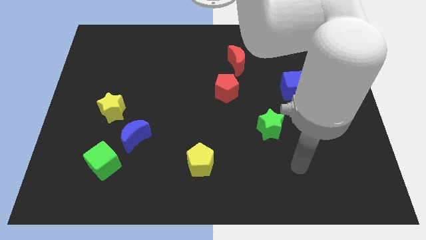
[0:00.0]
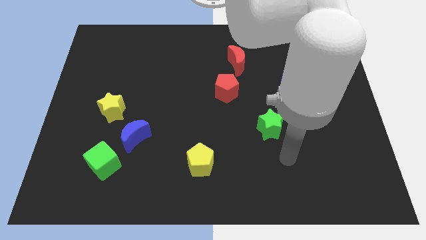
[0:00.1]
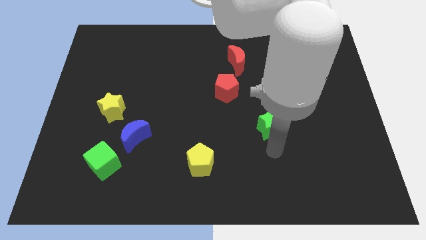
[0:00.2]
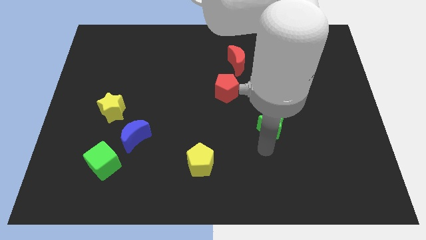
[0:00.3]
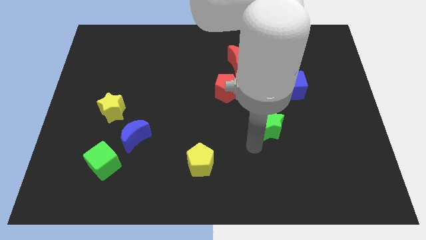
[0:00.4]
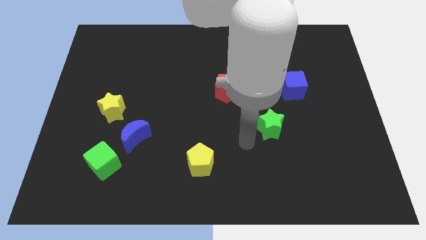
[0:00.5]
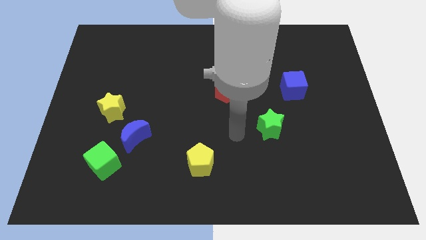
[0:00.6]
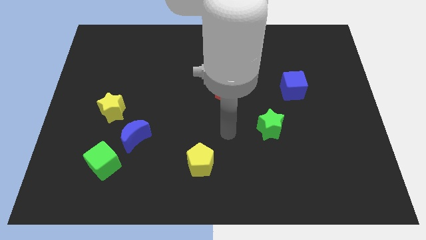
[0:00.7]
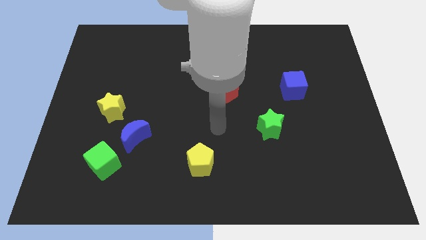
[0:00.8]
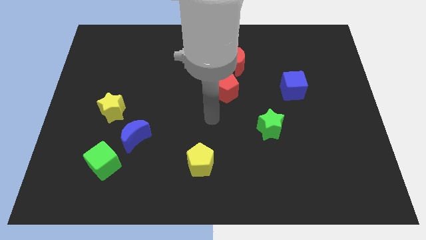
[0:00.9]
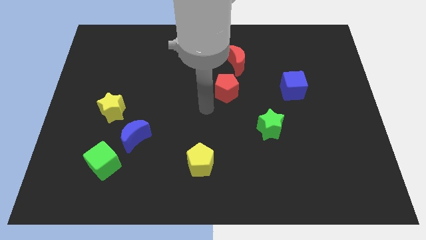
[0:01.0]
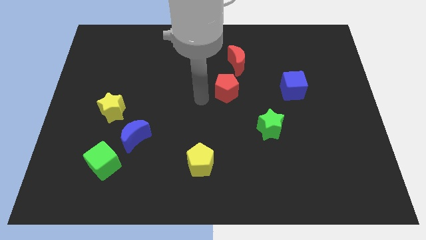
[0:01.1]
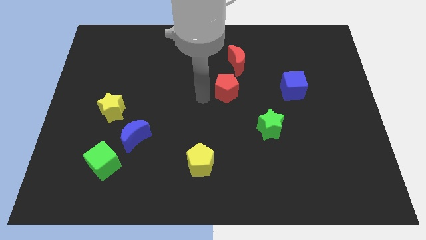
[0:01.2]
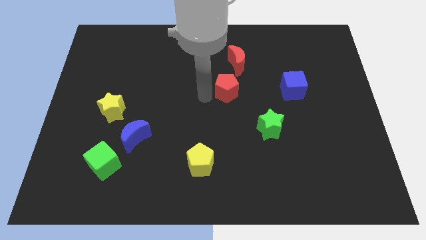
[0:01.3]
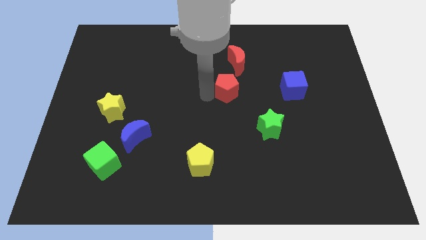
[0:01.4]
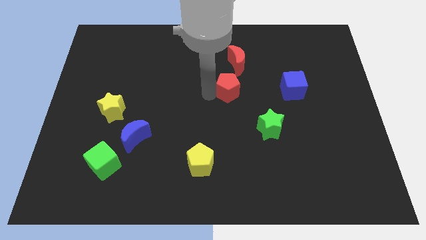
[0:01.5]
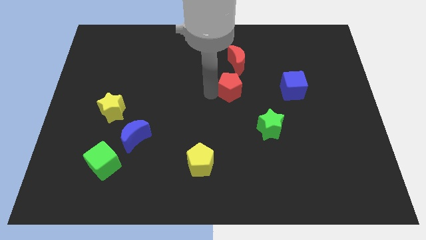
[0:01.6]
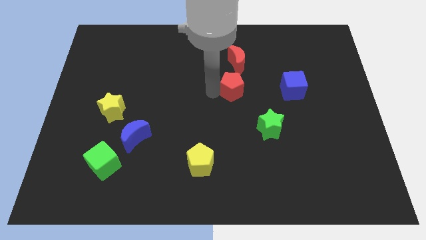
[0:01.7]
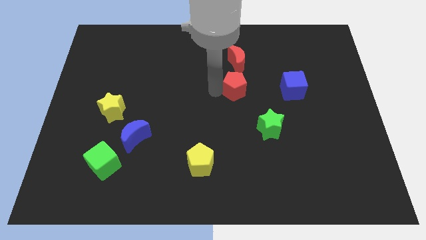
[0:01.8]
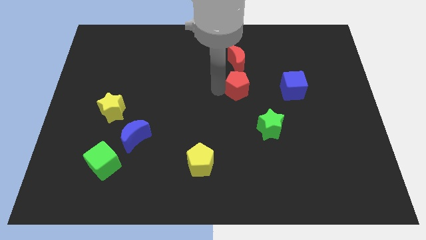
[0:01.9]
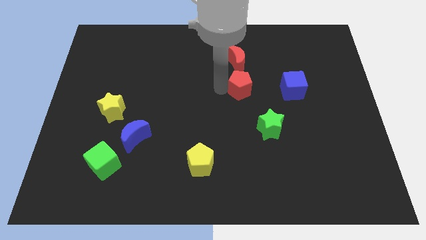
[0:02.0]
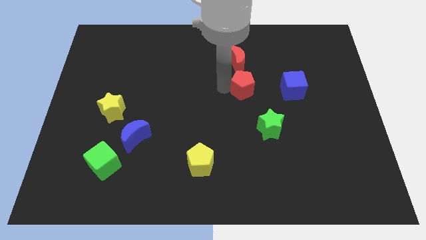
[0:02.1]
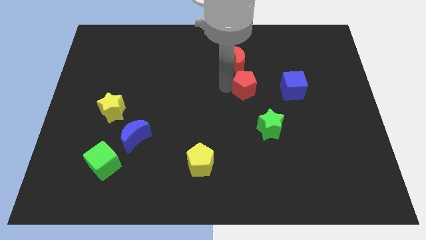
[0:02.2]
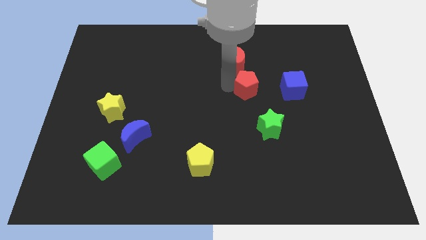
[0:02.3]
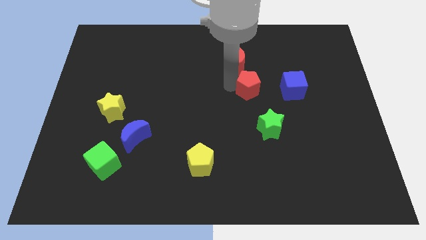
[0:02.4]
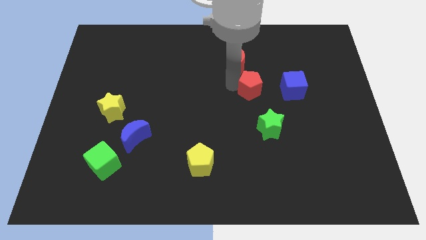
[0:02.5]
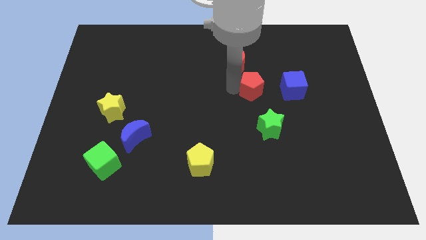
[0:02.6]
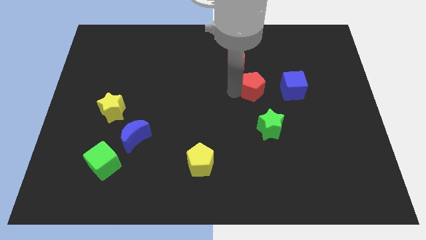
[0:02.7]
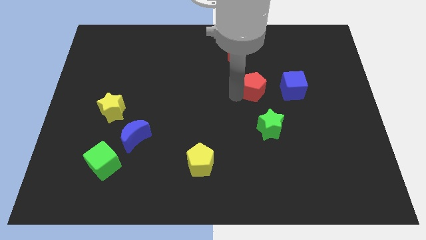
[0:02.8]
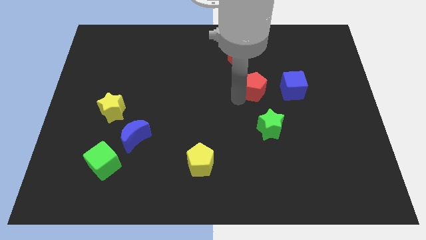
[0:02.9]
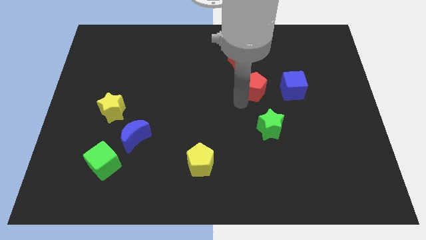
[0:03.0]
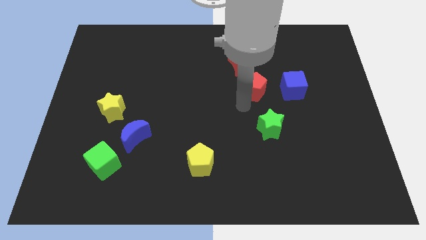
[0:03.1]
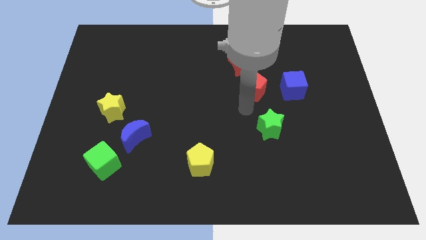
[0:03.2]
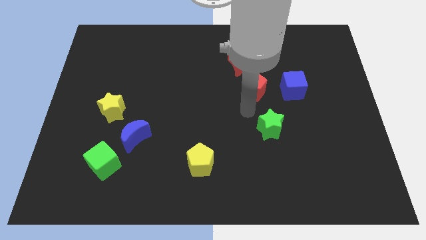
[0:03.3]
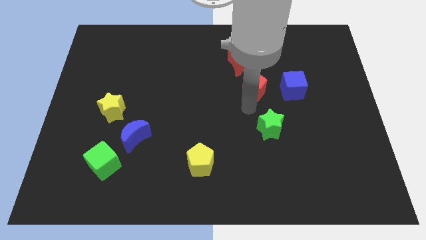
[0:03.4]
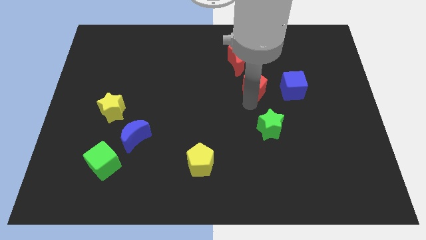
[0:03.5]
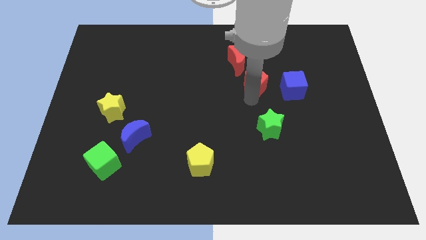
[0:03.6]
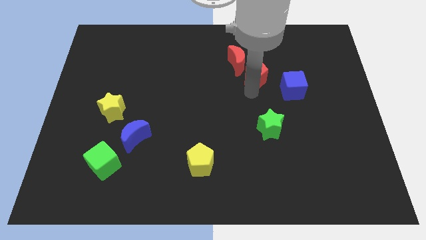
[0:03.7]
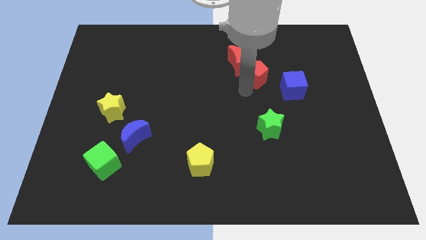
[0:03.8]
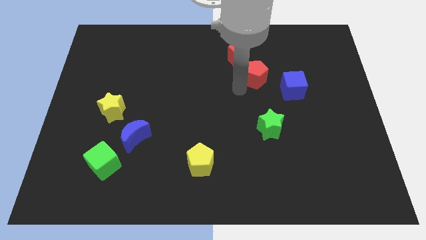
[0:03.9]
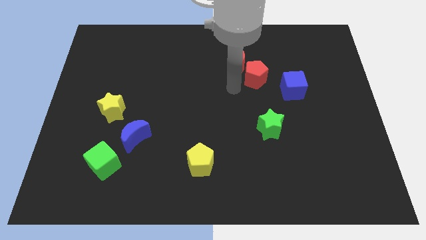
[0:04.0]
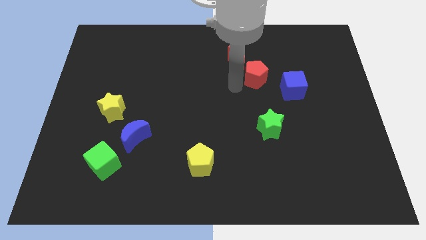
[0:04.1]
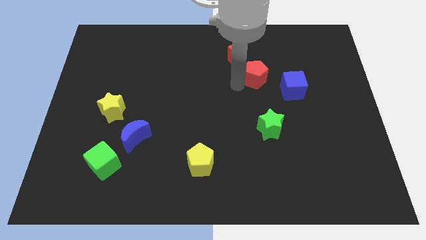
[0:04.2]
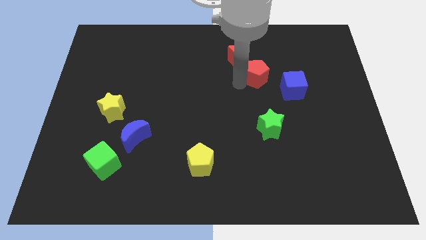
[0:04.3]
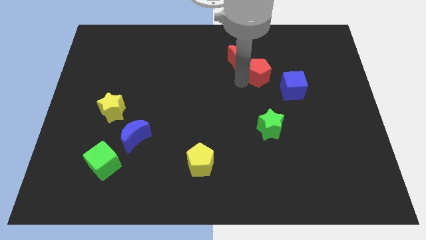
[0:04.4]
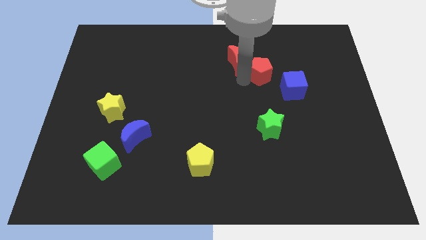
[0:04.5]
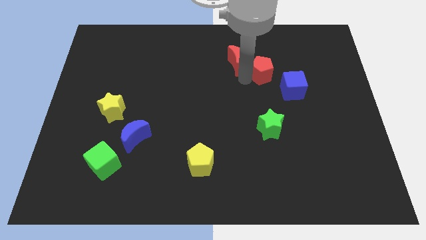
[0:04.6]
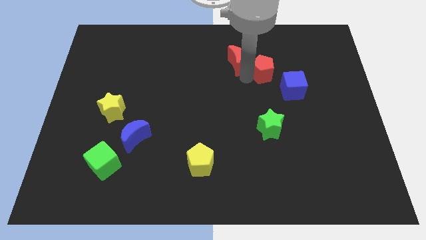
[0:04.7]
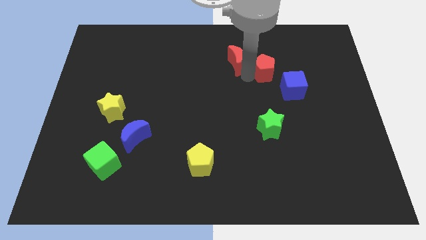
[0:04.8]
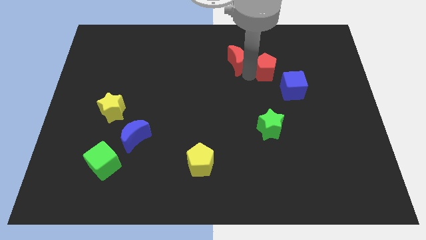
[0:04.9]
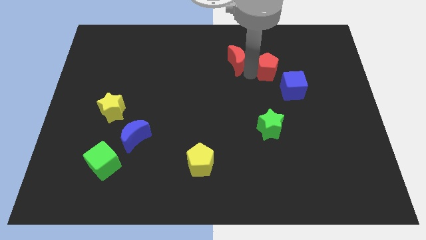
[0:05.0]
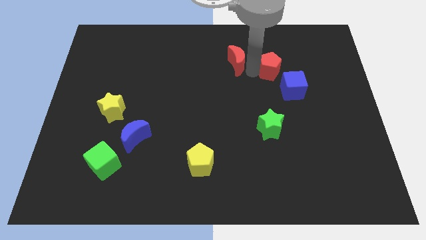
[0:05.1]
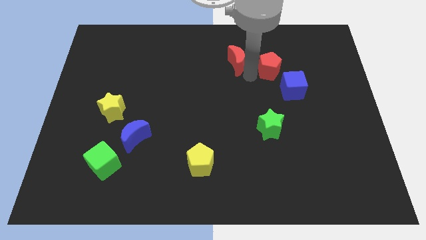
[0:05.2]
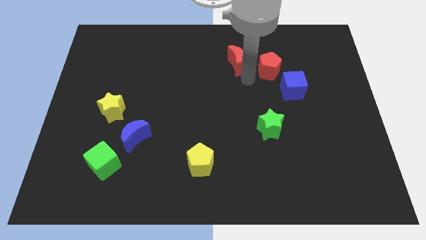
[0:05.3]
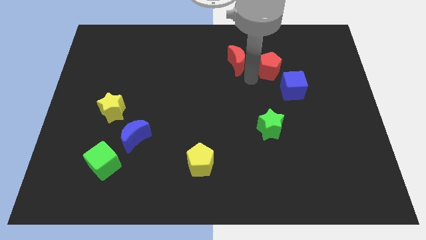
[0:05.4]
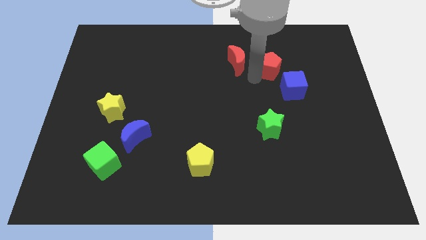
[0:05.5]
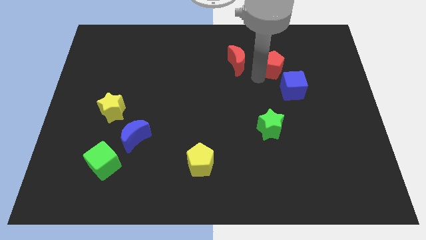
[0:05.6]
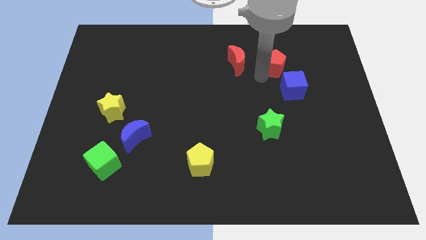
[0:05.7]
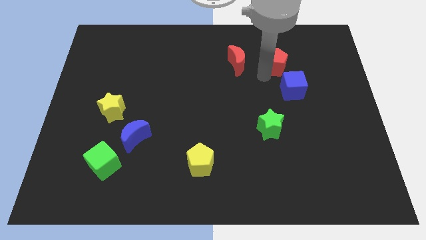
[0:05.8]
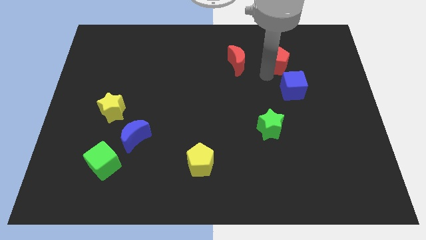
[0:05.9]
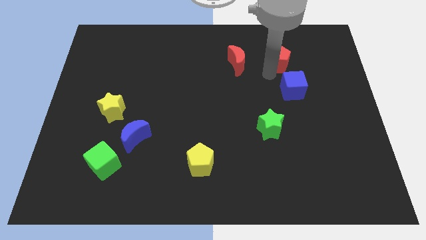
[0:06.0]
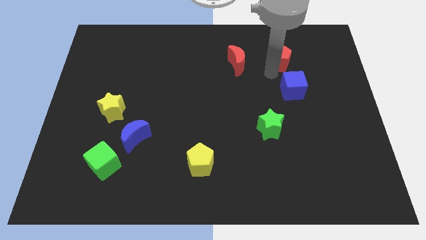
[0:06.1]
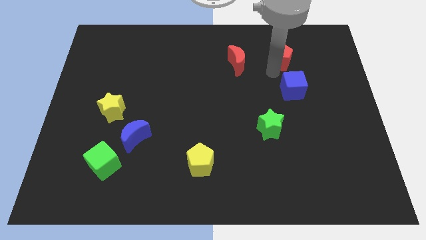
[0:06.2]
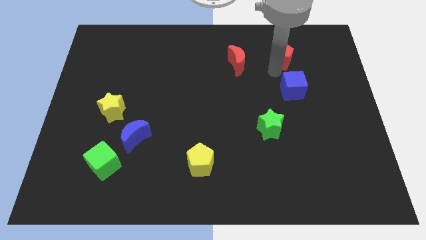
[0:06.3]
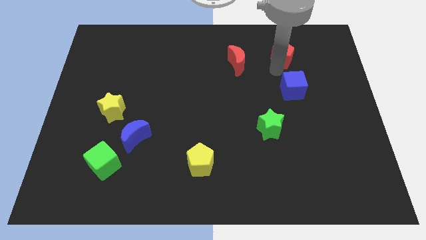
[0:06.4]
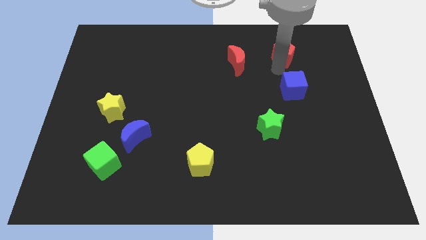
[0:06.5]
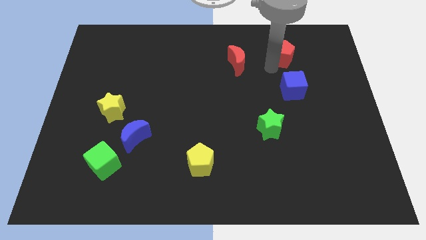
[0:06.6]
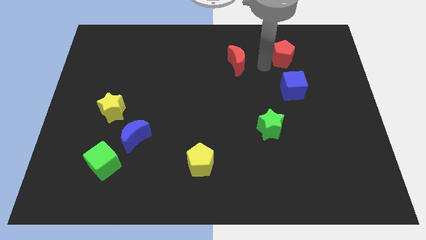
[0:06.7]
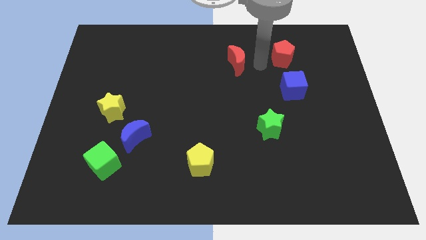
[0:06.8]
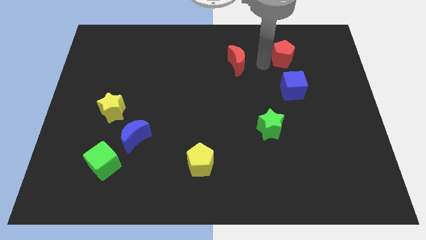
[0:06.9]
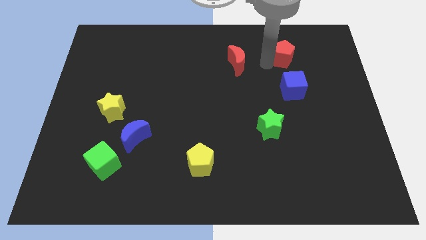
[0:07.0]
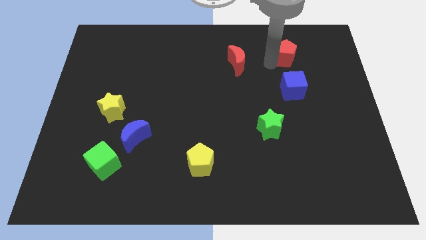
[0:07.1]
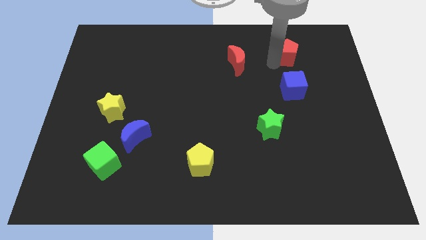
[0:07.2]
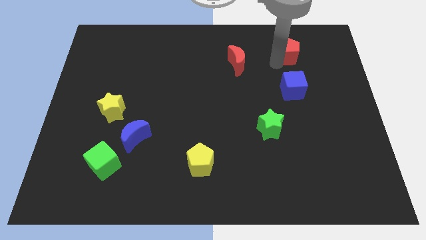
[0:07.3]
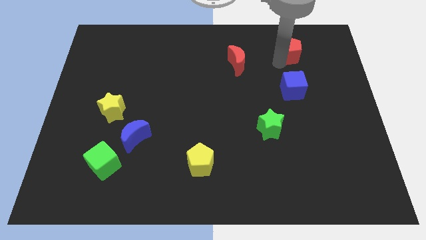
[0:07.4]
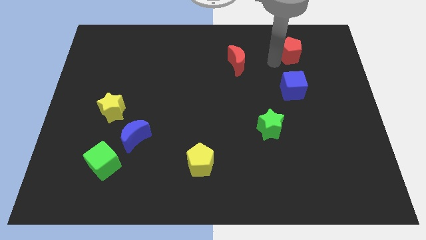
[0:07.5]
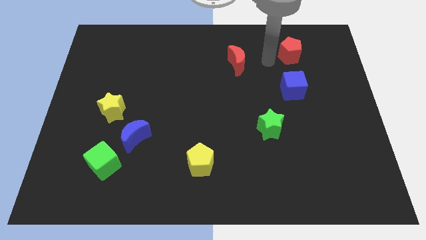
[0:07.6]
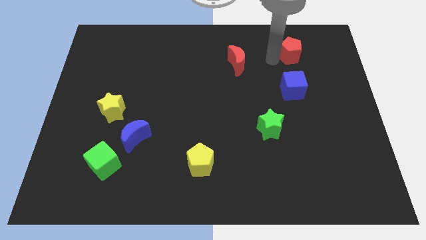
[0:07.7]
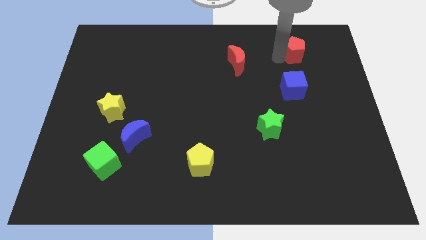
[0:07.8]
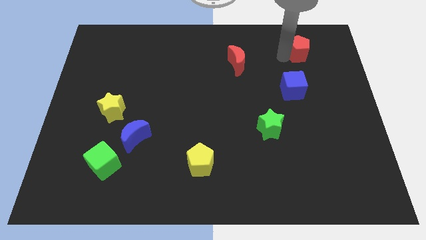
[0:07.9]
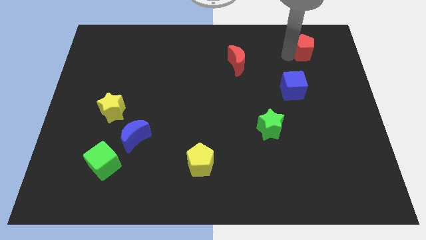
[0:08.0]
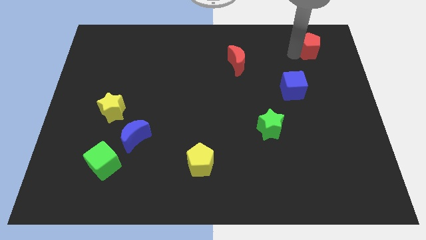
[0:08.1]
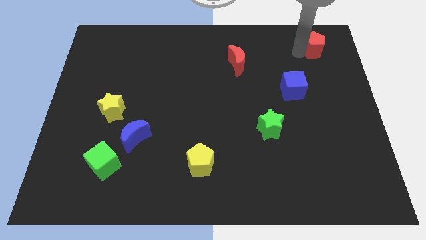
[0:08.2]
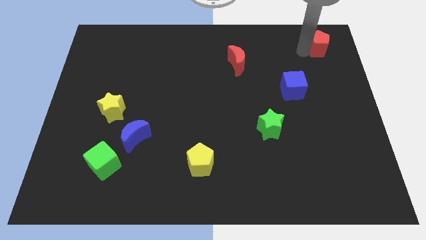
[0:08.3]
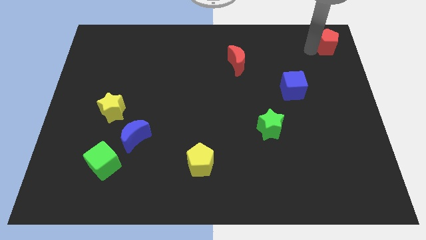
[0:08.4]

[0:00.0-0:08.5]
put the red pentagon to the top right of the board
